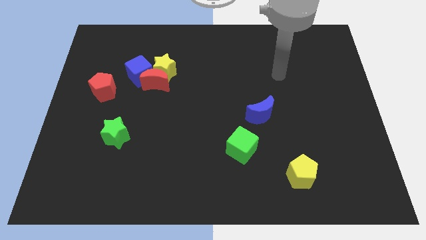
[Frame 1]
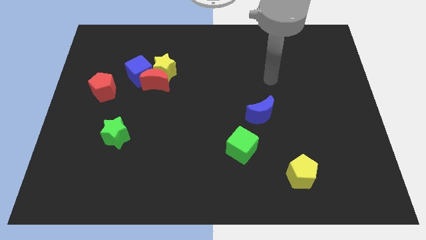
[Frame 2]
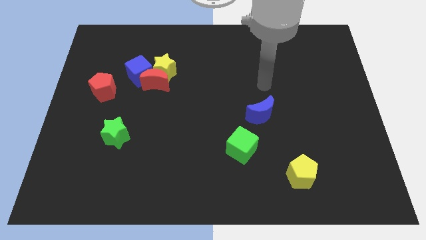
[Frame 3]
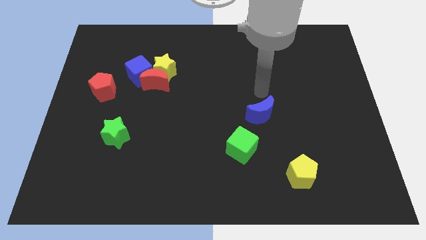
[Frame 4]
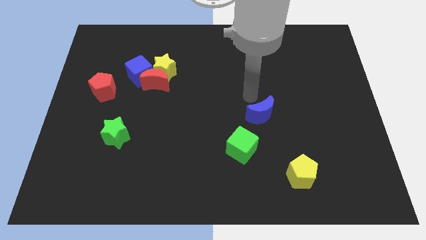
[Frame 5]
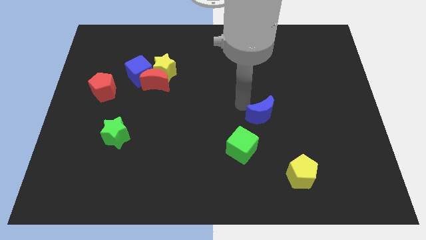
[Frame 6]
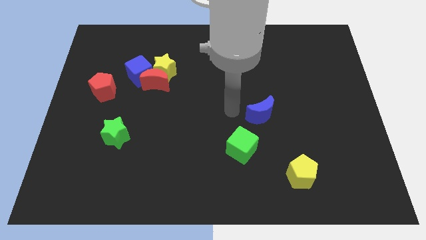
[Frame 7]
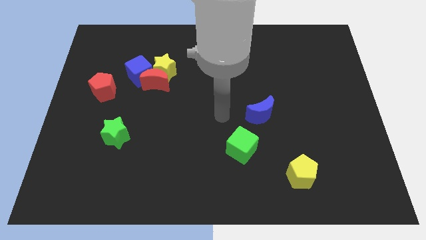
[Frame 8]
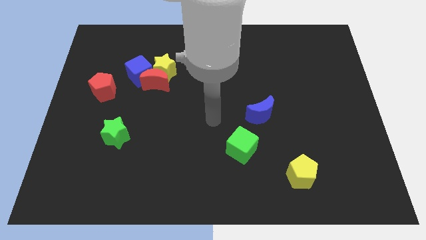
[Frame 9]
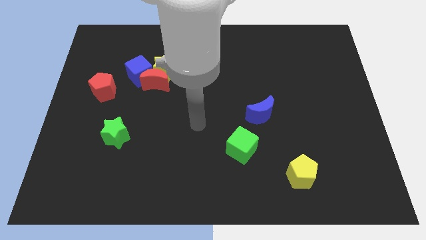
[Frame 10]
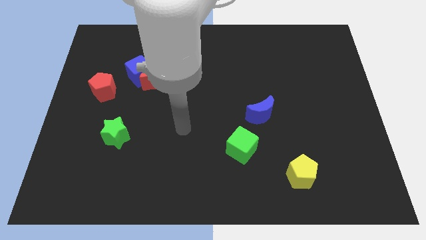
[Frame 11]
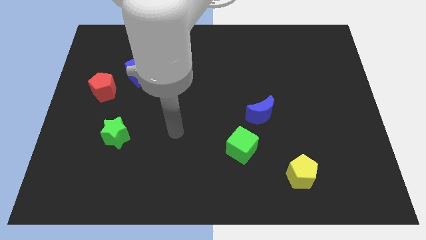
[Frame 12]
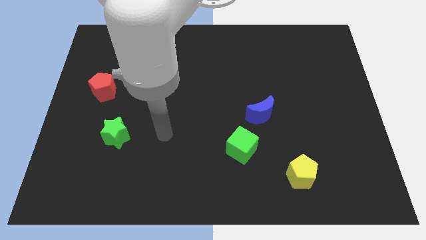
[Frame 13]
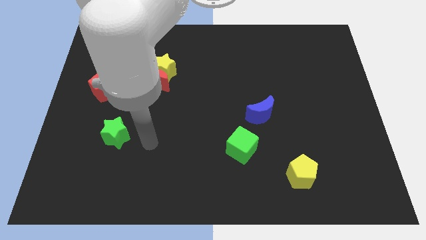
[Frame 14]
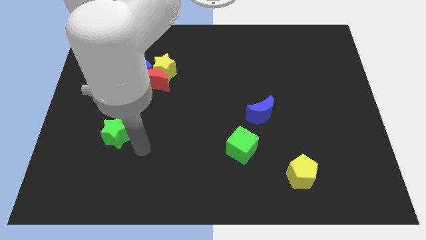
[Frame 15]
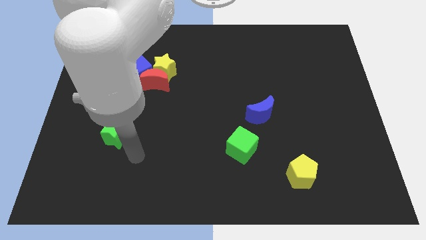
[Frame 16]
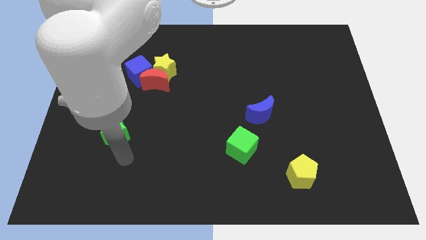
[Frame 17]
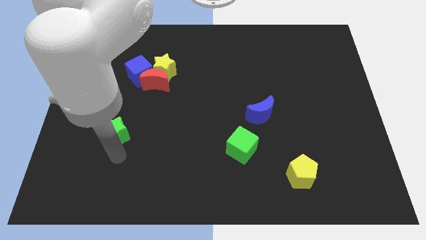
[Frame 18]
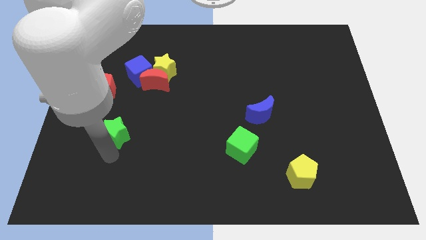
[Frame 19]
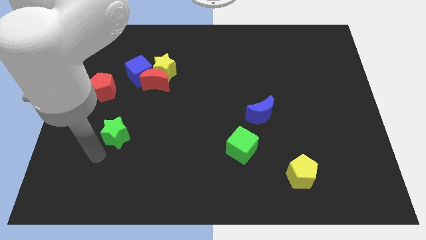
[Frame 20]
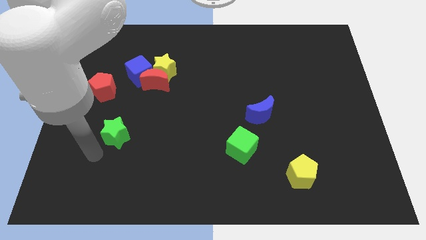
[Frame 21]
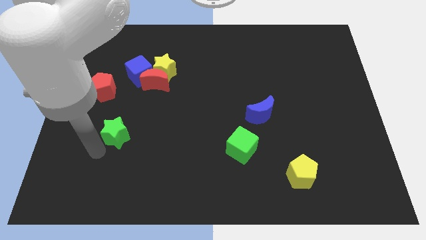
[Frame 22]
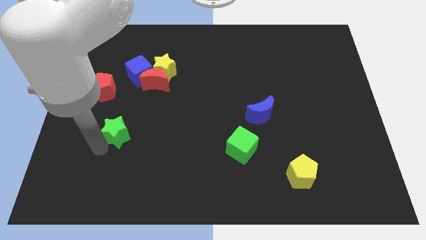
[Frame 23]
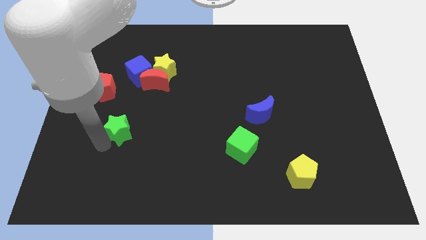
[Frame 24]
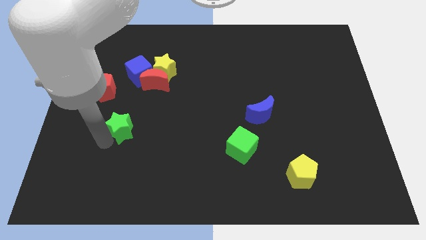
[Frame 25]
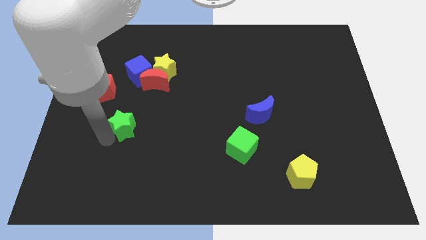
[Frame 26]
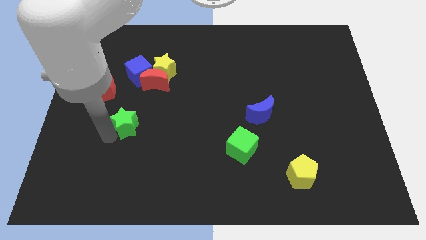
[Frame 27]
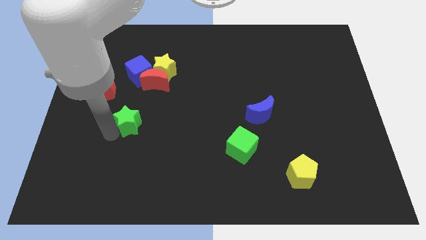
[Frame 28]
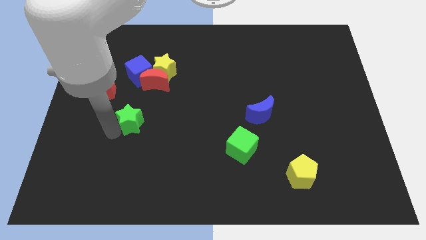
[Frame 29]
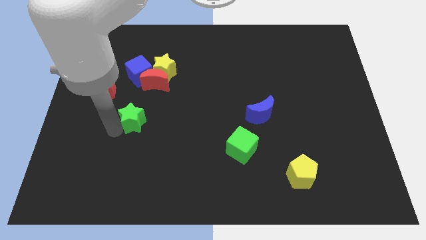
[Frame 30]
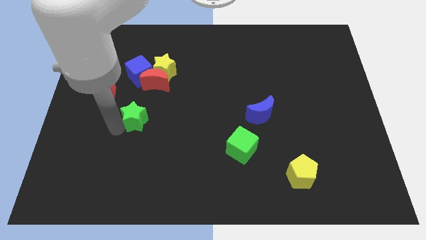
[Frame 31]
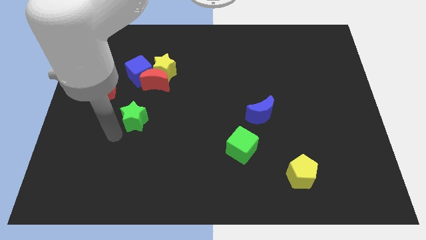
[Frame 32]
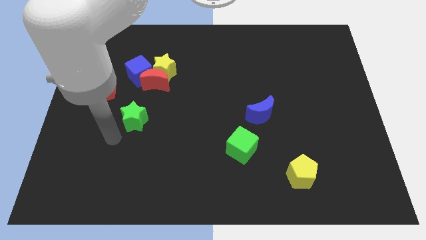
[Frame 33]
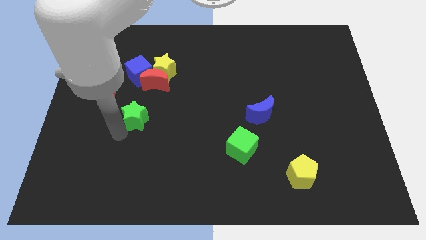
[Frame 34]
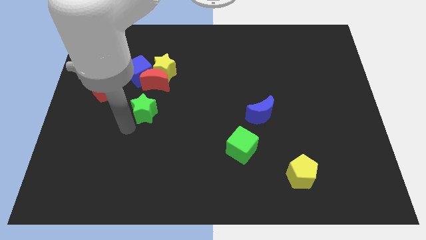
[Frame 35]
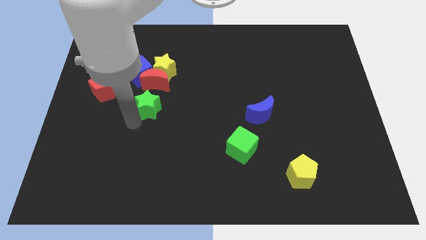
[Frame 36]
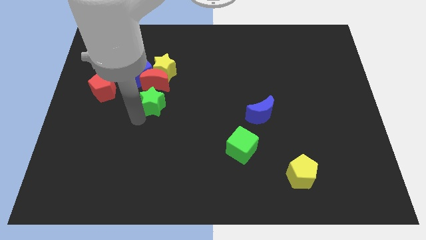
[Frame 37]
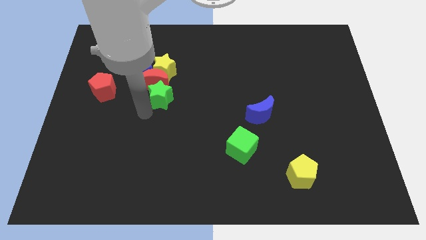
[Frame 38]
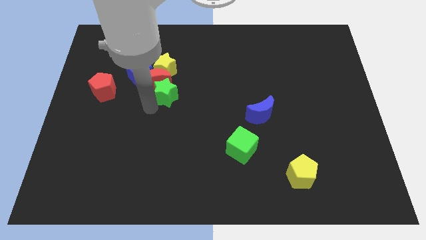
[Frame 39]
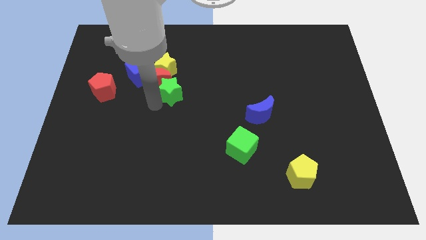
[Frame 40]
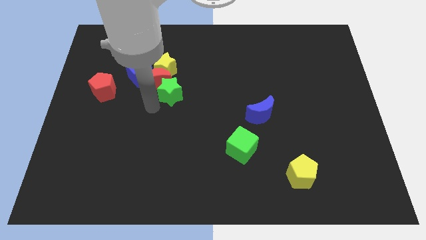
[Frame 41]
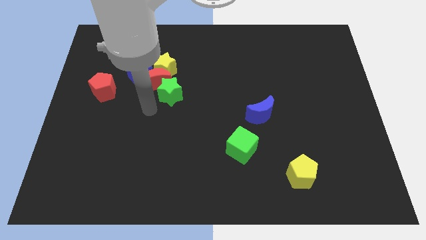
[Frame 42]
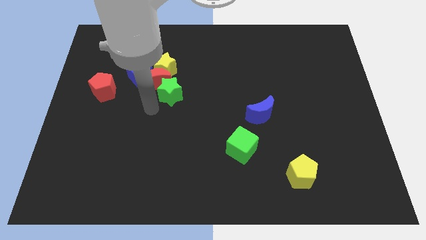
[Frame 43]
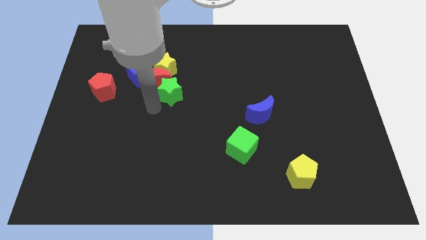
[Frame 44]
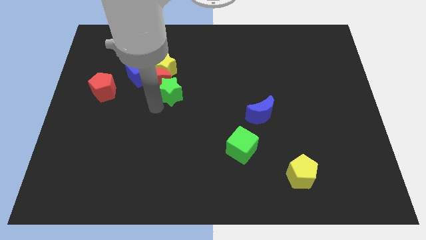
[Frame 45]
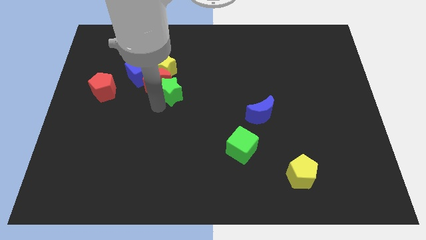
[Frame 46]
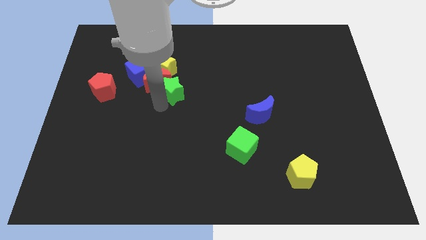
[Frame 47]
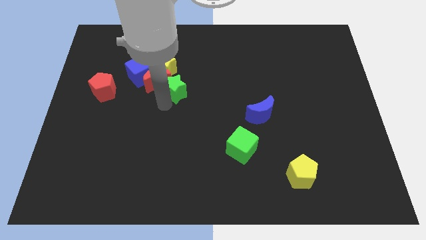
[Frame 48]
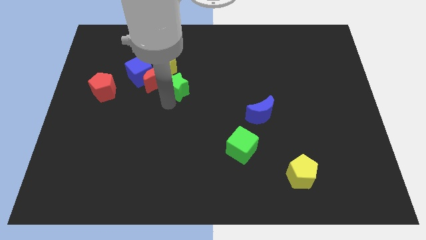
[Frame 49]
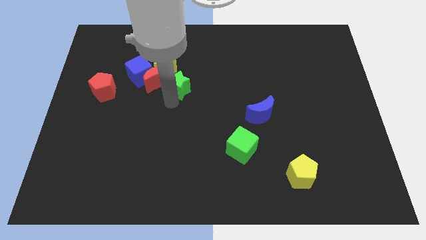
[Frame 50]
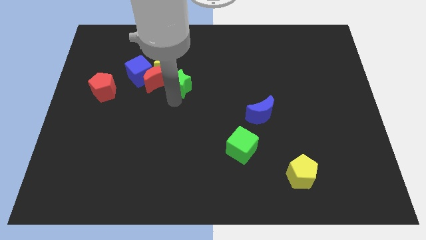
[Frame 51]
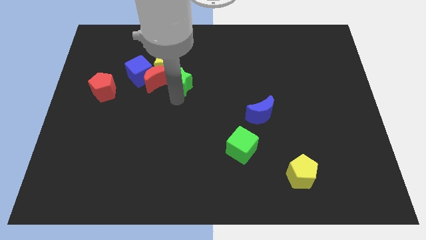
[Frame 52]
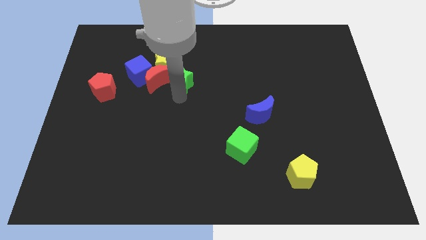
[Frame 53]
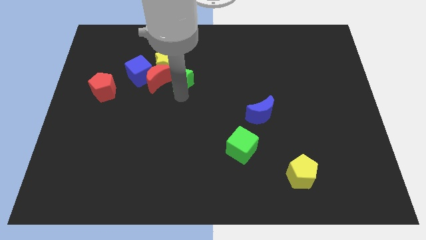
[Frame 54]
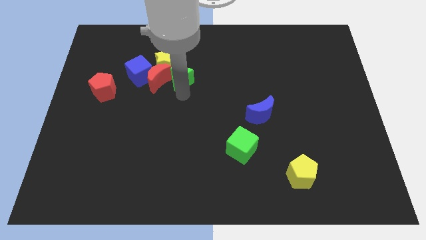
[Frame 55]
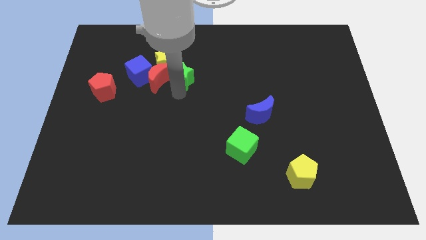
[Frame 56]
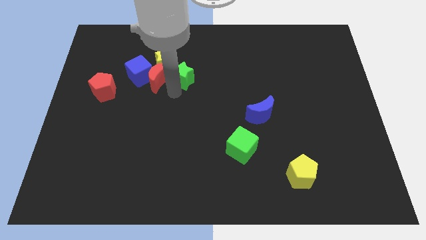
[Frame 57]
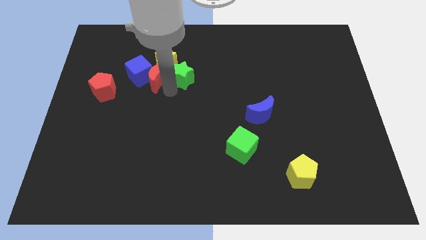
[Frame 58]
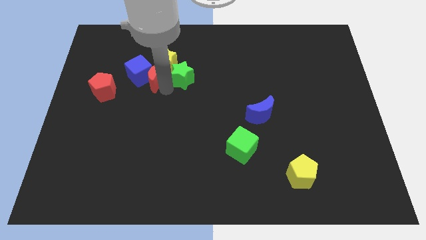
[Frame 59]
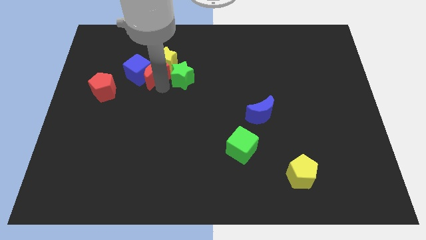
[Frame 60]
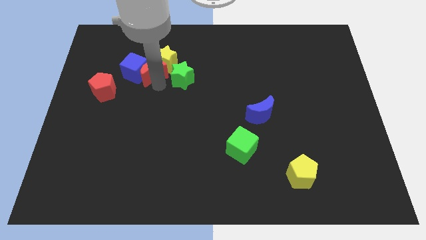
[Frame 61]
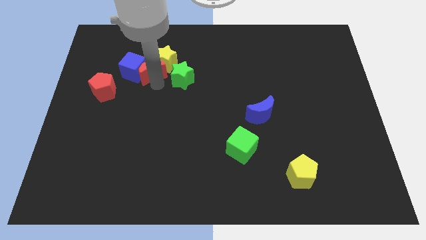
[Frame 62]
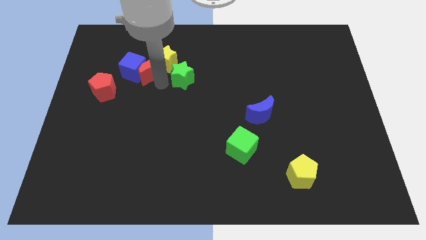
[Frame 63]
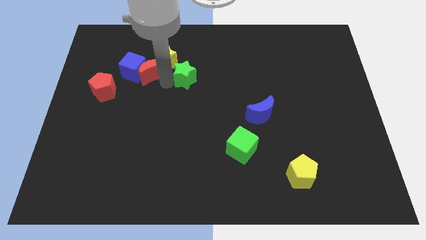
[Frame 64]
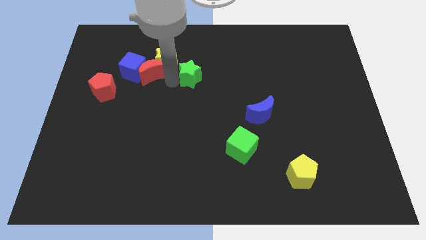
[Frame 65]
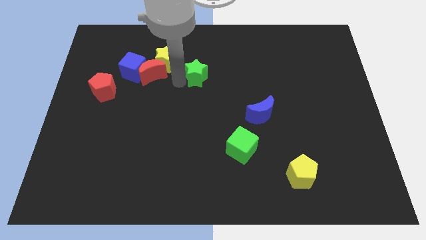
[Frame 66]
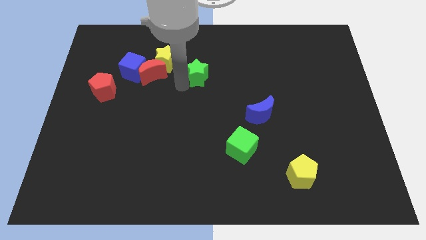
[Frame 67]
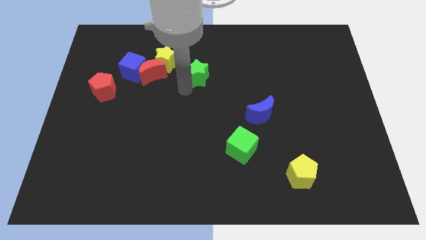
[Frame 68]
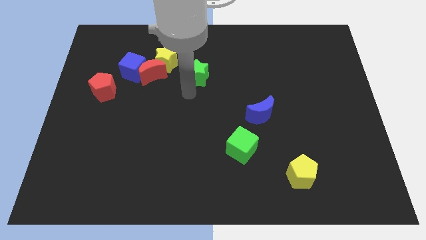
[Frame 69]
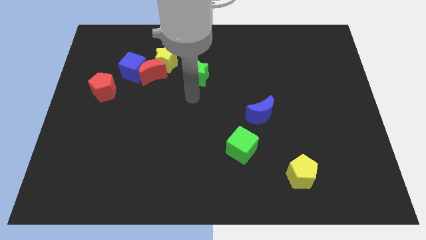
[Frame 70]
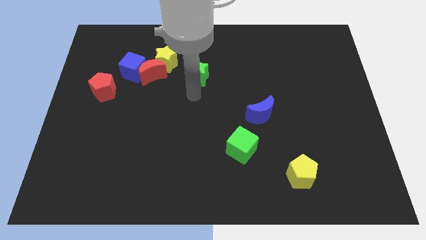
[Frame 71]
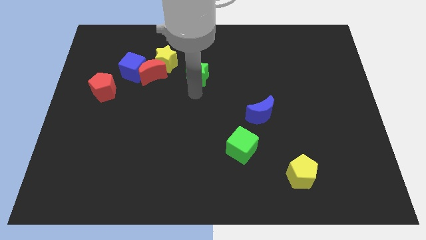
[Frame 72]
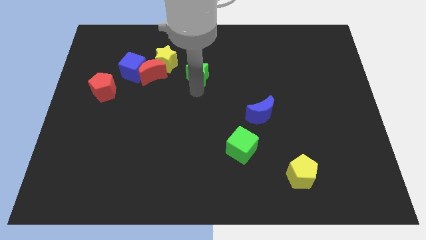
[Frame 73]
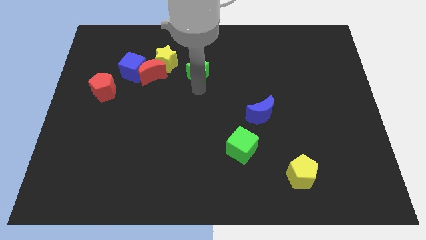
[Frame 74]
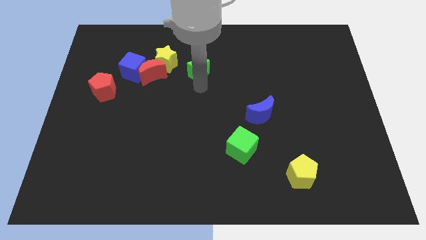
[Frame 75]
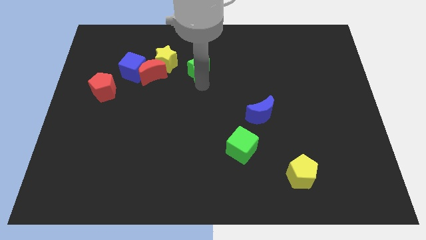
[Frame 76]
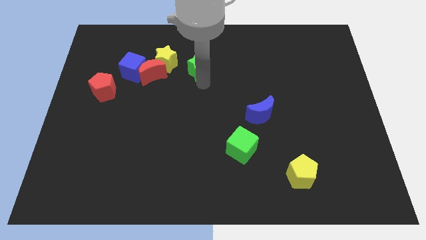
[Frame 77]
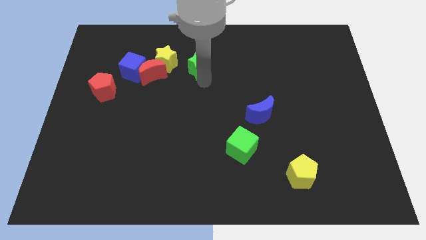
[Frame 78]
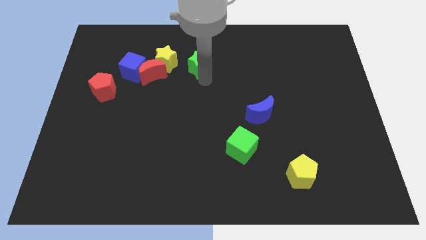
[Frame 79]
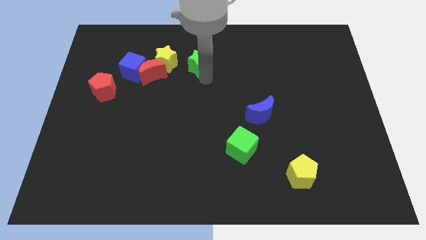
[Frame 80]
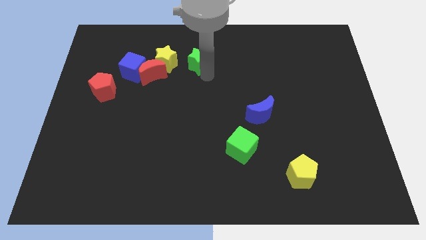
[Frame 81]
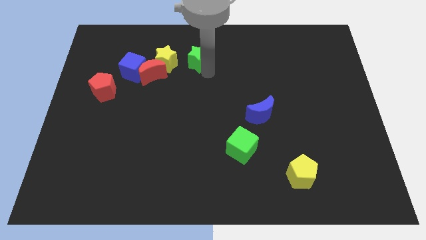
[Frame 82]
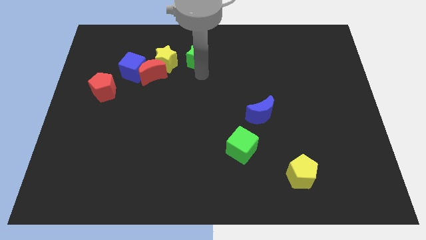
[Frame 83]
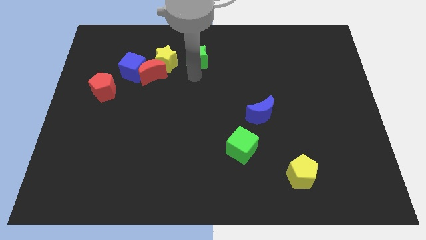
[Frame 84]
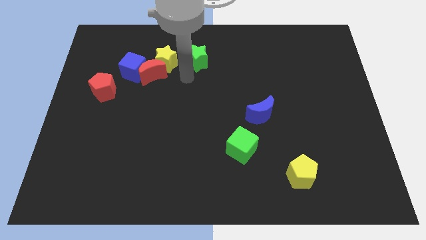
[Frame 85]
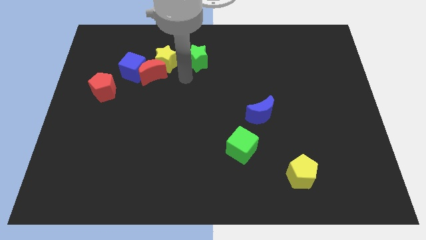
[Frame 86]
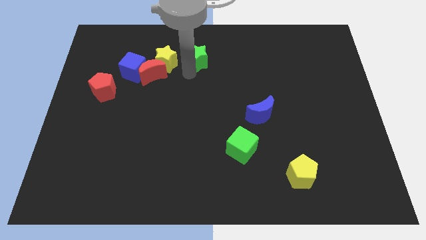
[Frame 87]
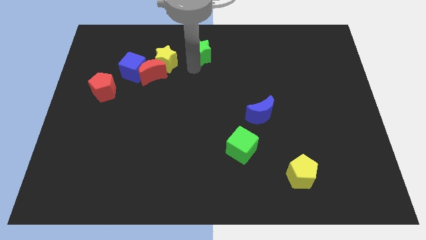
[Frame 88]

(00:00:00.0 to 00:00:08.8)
slide the green star to the top side
